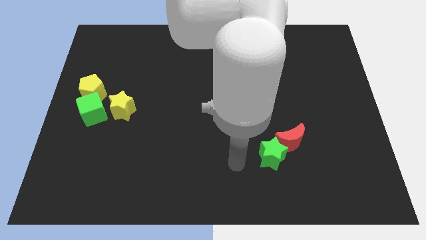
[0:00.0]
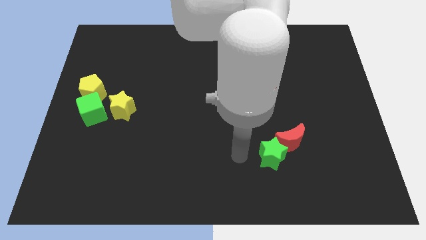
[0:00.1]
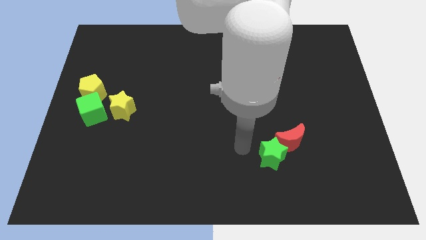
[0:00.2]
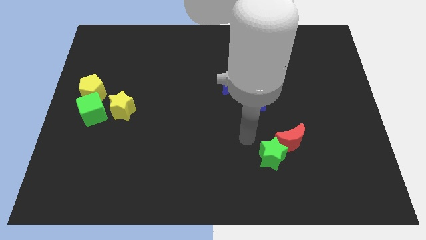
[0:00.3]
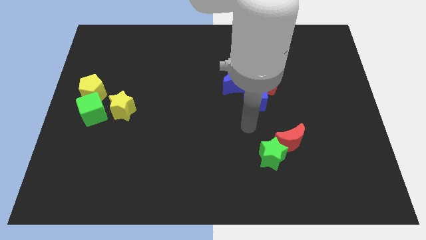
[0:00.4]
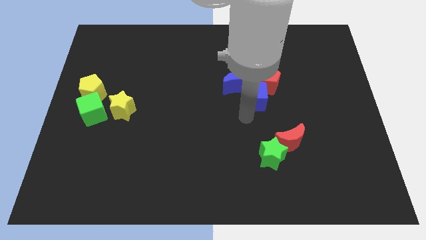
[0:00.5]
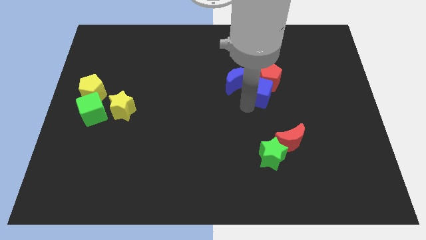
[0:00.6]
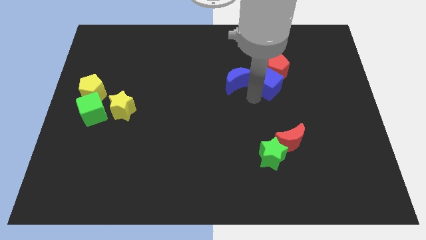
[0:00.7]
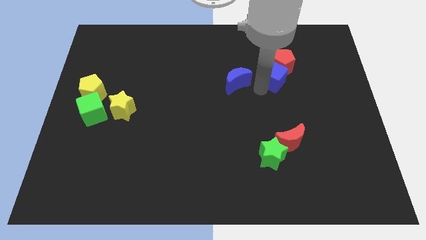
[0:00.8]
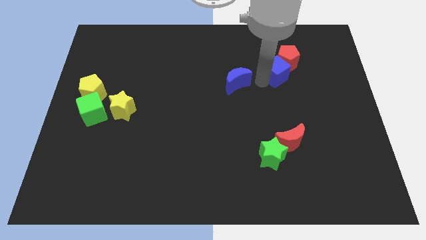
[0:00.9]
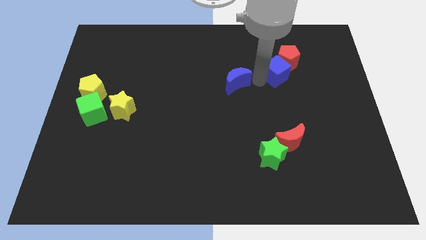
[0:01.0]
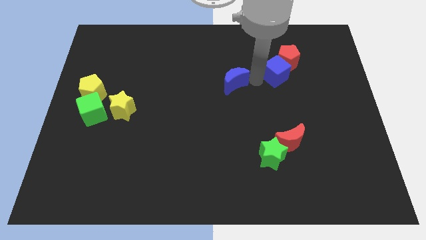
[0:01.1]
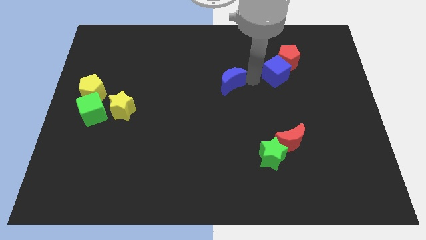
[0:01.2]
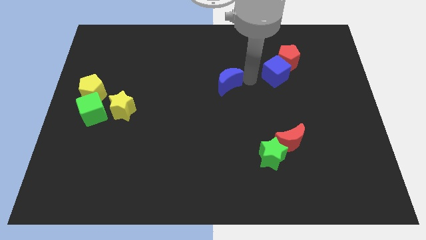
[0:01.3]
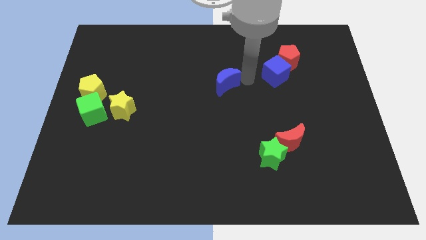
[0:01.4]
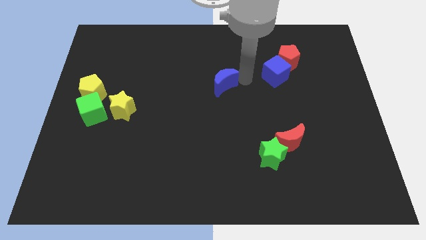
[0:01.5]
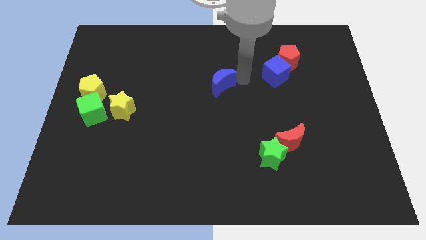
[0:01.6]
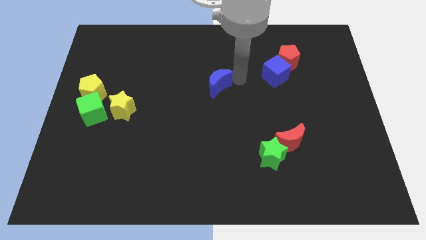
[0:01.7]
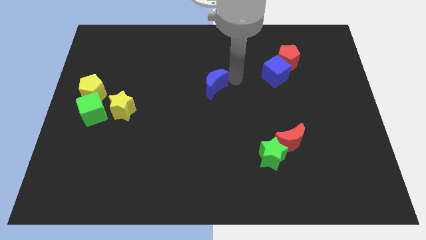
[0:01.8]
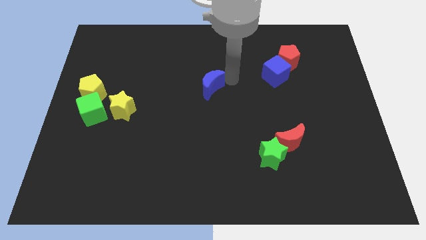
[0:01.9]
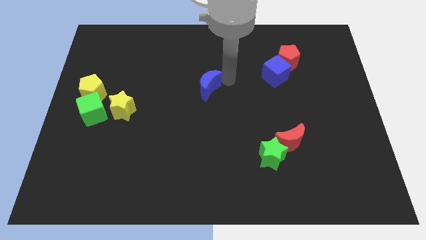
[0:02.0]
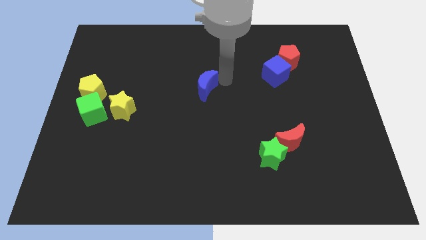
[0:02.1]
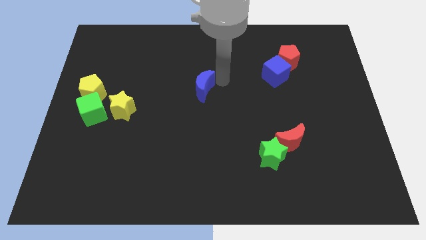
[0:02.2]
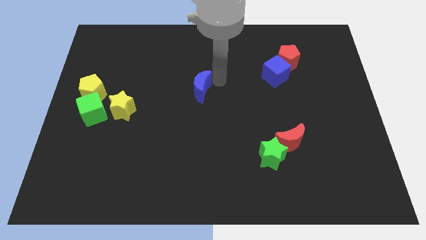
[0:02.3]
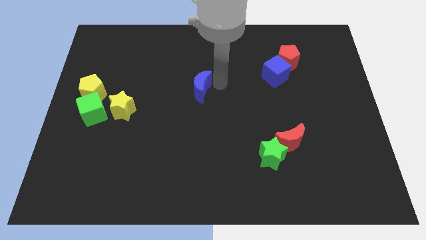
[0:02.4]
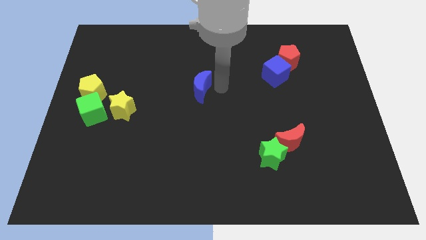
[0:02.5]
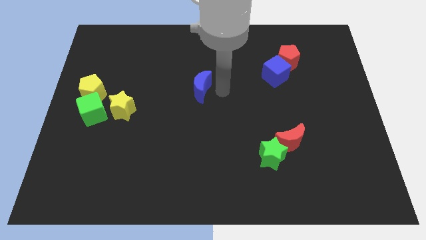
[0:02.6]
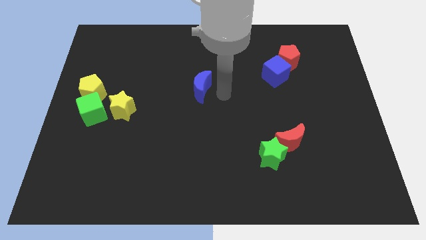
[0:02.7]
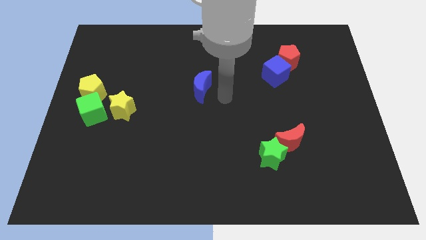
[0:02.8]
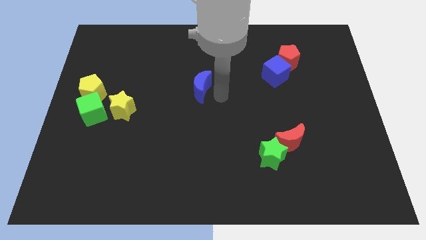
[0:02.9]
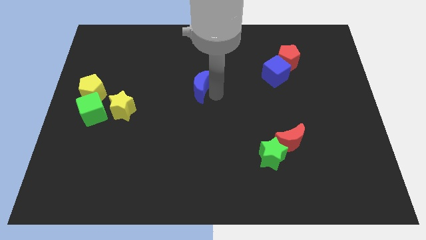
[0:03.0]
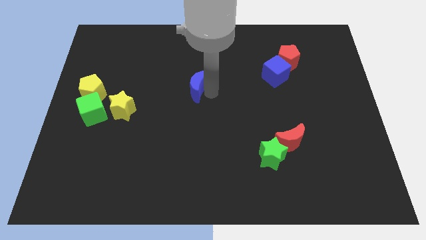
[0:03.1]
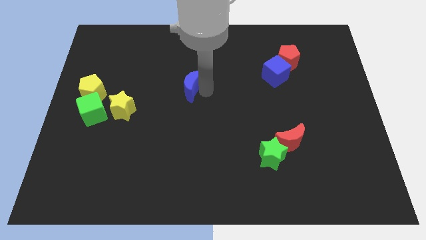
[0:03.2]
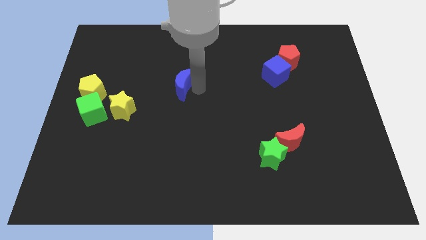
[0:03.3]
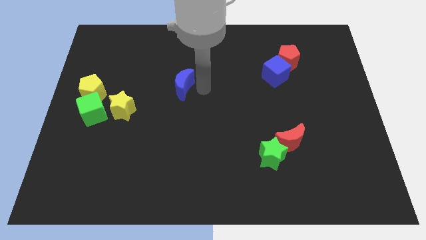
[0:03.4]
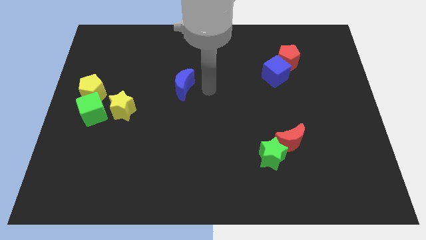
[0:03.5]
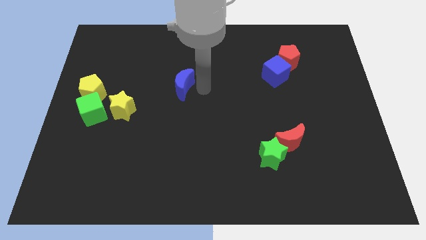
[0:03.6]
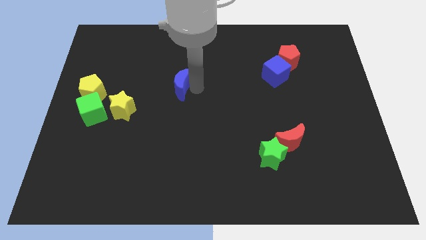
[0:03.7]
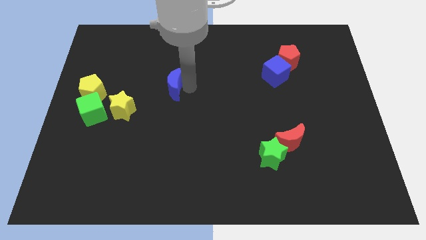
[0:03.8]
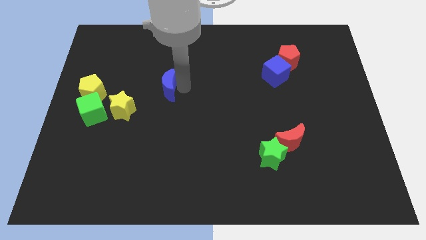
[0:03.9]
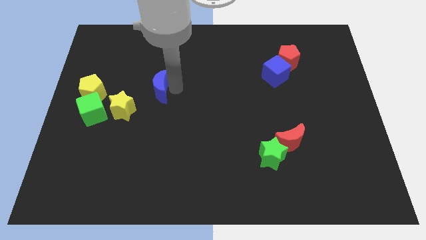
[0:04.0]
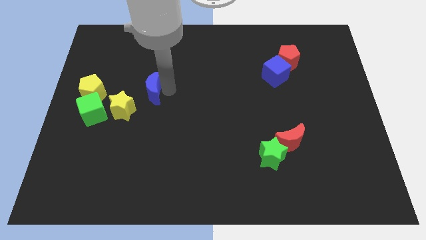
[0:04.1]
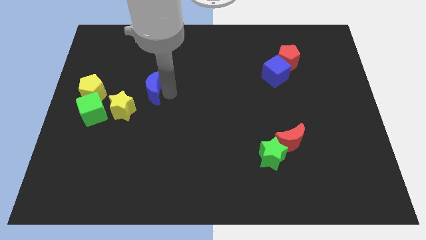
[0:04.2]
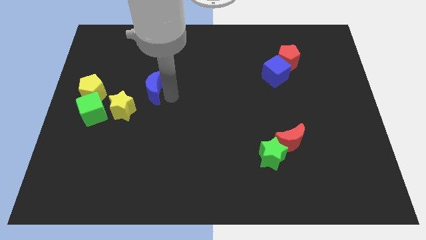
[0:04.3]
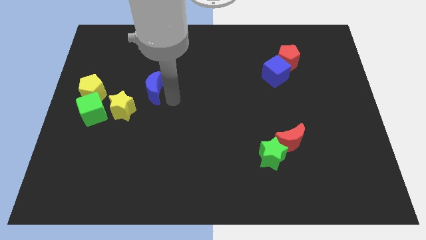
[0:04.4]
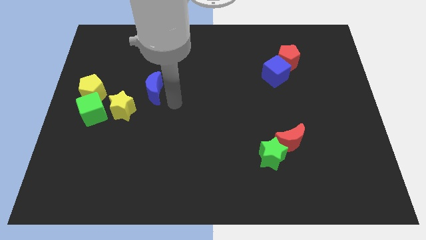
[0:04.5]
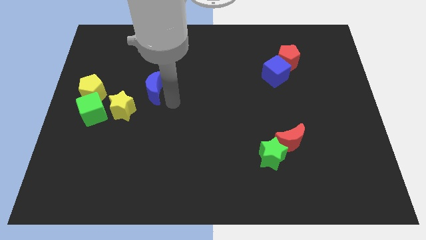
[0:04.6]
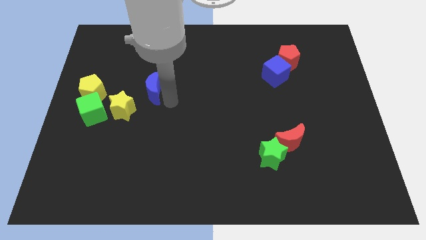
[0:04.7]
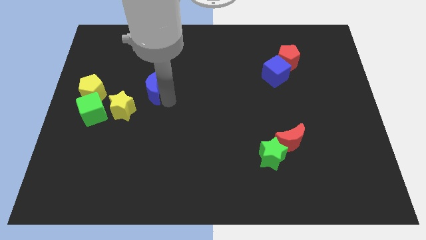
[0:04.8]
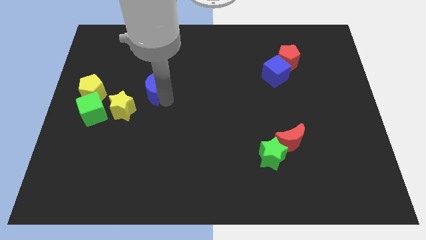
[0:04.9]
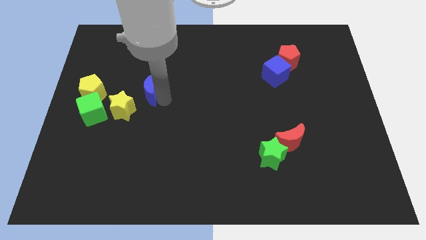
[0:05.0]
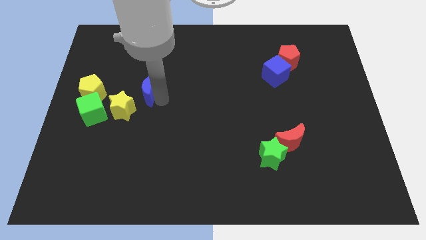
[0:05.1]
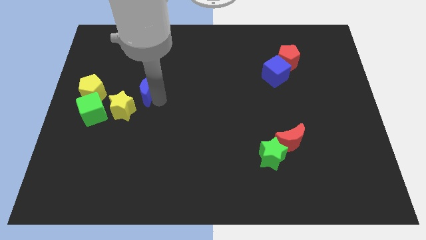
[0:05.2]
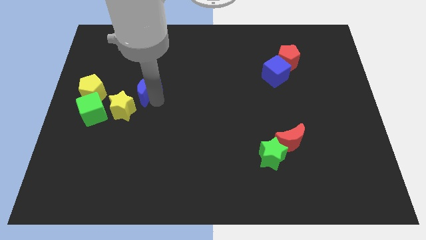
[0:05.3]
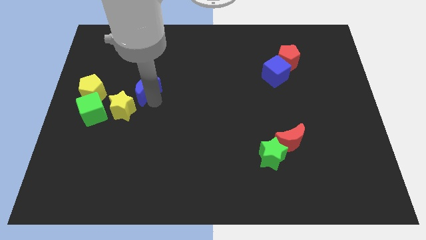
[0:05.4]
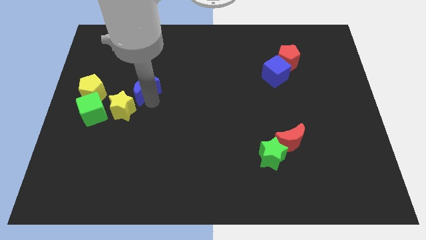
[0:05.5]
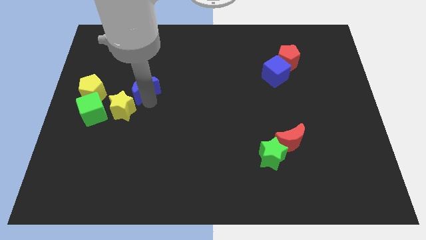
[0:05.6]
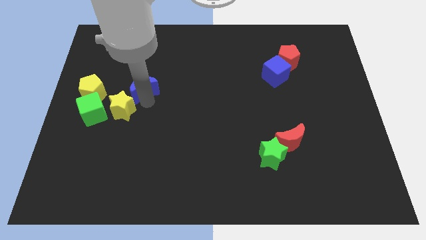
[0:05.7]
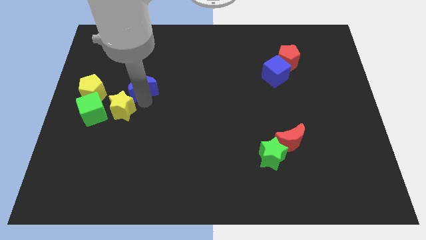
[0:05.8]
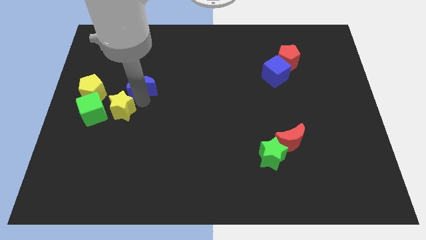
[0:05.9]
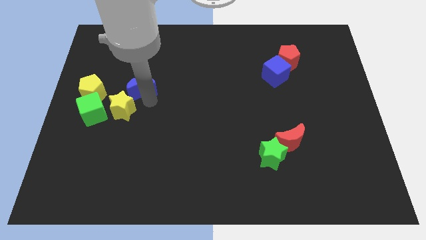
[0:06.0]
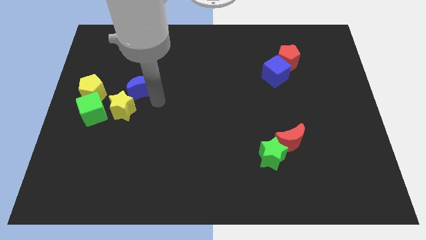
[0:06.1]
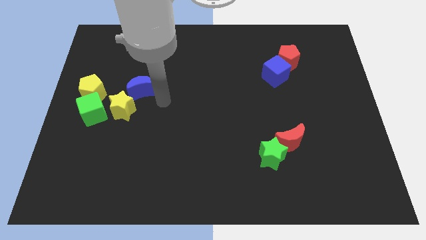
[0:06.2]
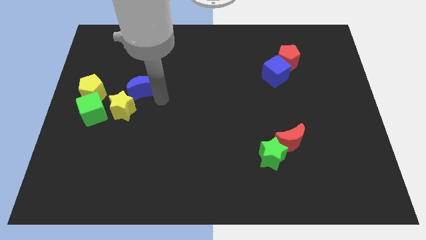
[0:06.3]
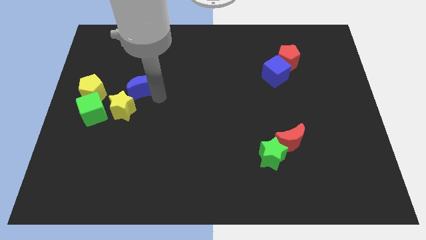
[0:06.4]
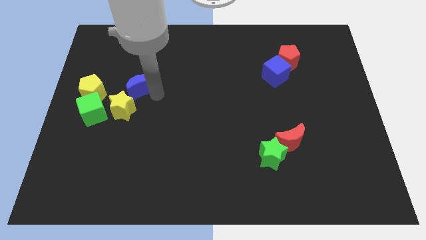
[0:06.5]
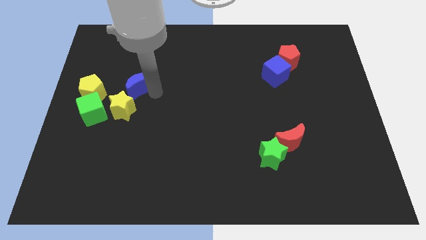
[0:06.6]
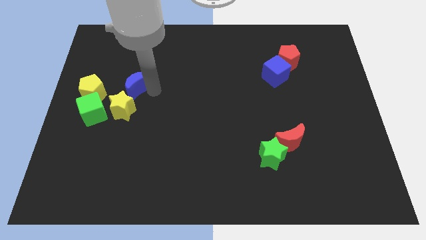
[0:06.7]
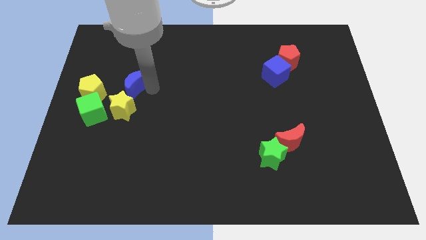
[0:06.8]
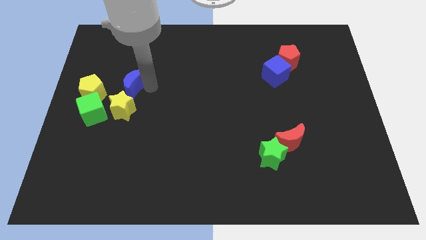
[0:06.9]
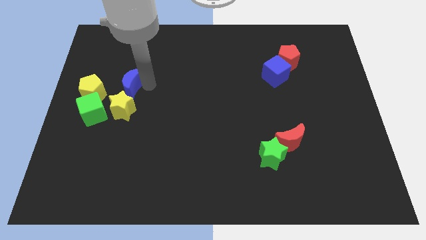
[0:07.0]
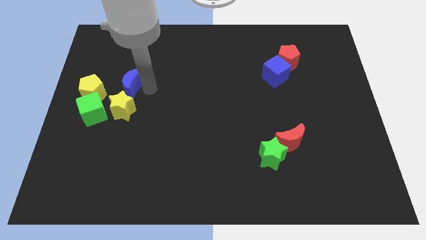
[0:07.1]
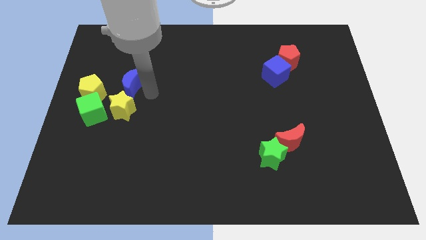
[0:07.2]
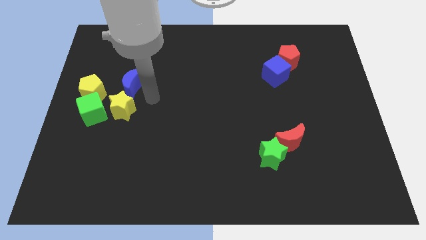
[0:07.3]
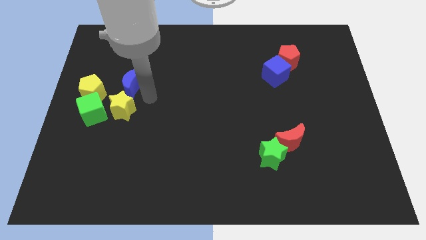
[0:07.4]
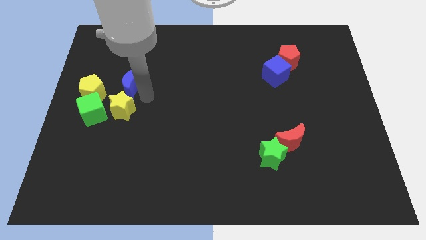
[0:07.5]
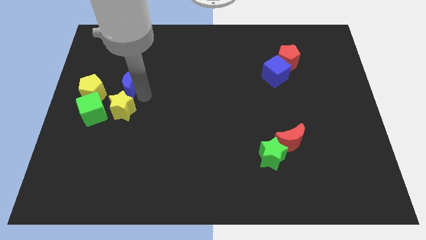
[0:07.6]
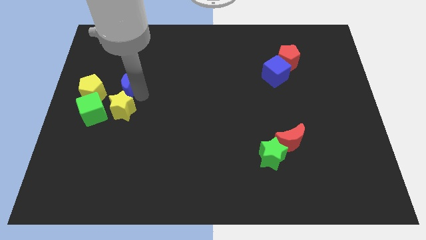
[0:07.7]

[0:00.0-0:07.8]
put the blue moon to the top right of the yellow pentagon

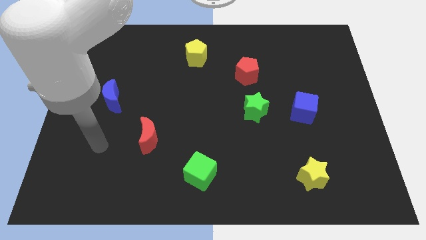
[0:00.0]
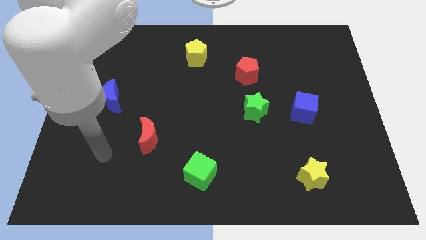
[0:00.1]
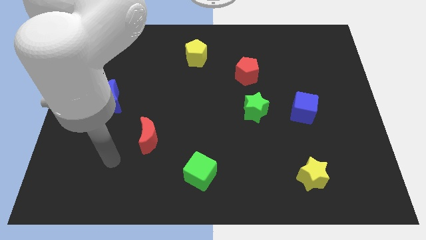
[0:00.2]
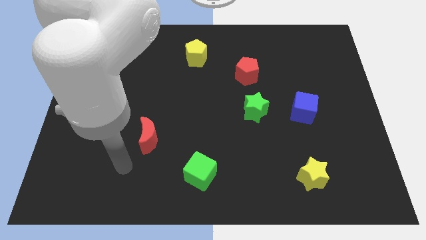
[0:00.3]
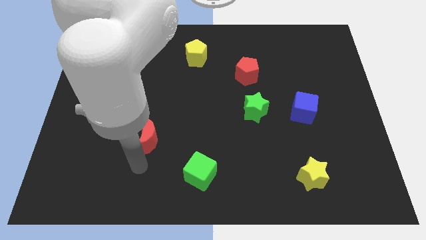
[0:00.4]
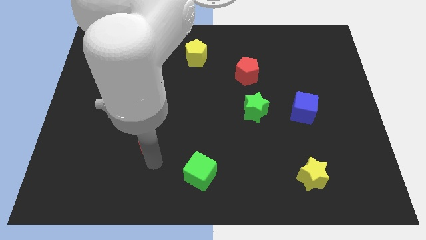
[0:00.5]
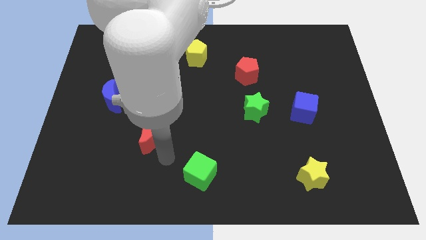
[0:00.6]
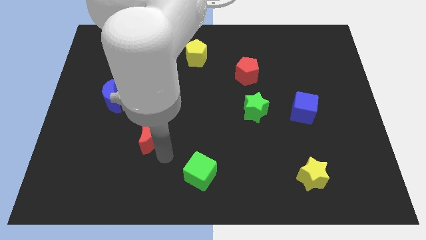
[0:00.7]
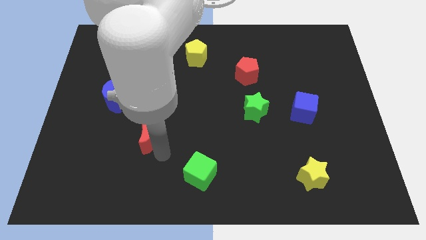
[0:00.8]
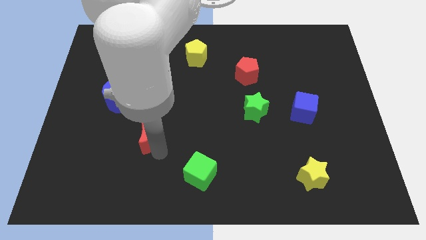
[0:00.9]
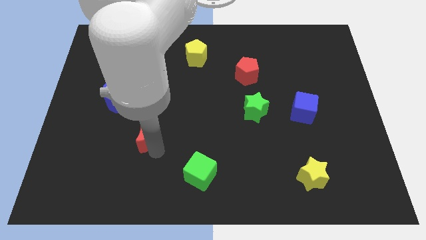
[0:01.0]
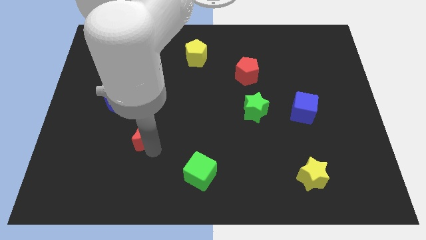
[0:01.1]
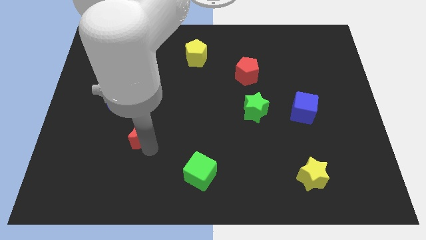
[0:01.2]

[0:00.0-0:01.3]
move the red moon to the bottom right side of the blue moon
